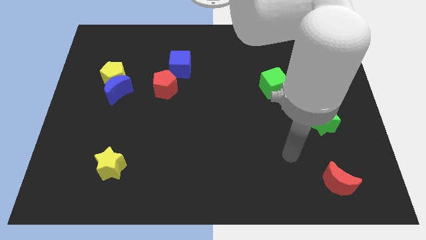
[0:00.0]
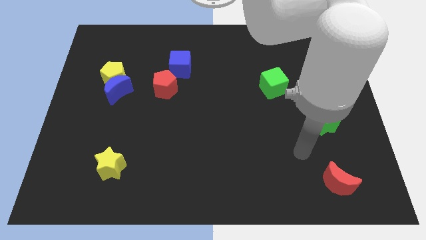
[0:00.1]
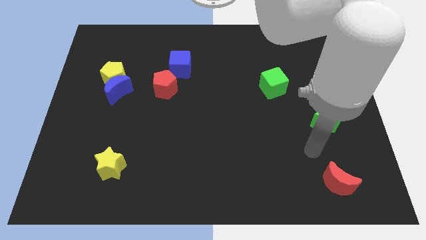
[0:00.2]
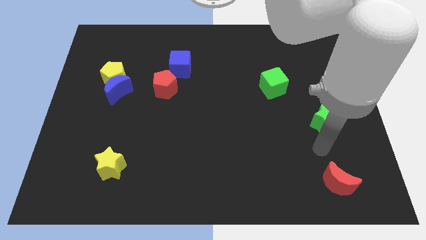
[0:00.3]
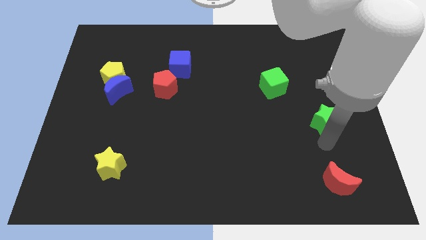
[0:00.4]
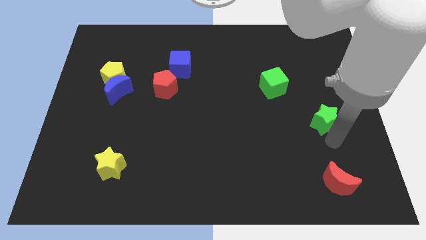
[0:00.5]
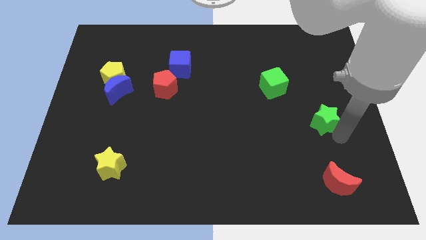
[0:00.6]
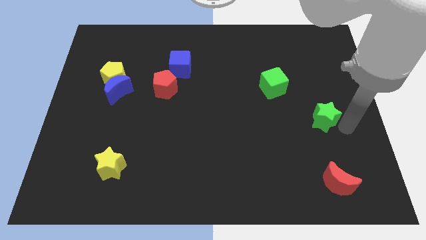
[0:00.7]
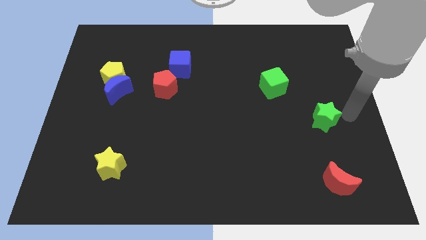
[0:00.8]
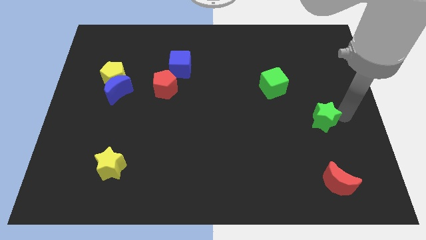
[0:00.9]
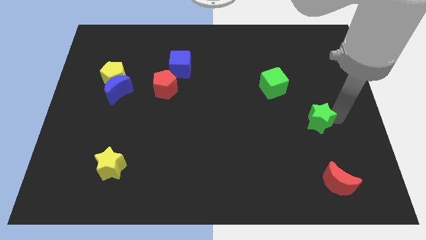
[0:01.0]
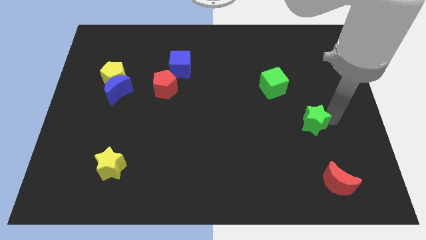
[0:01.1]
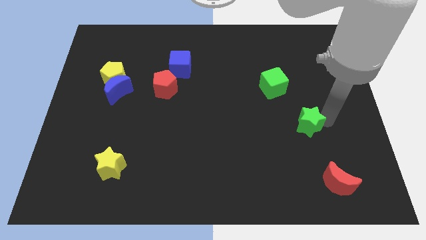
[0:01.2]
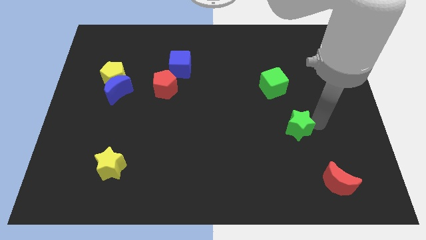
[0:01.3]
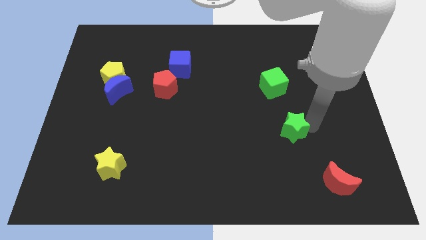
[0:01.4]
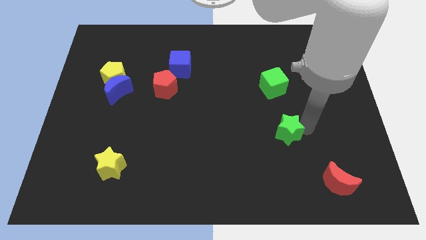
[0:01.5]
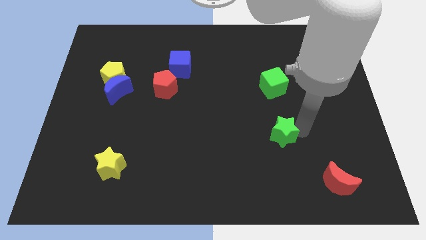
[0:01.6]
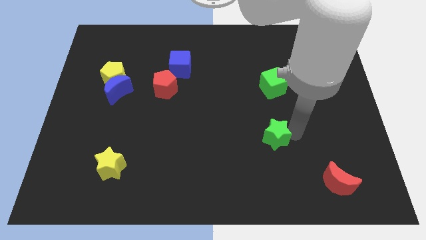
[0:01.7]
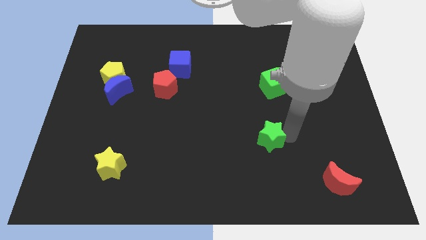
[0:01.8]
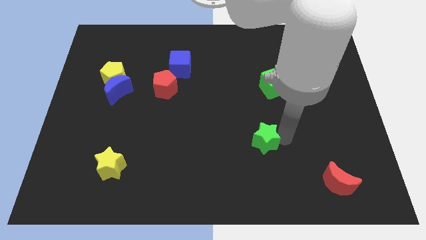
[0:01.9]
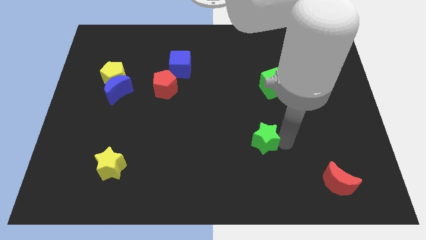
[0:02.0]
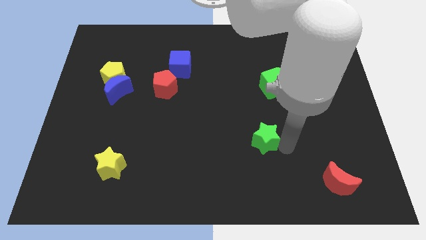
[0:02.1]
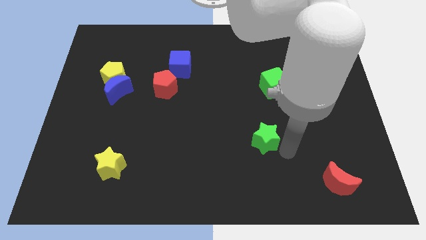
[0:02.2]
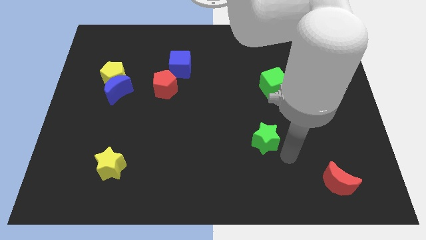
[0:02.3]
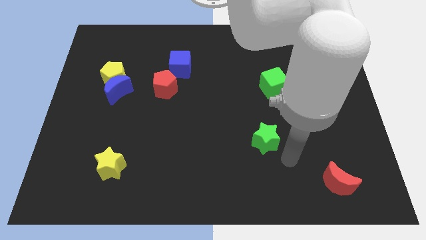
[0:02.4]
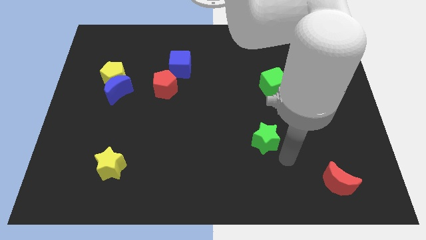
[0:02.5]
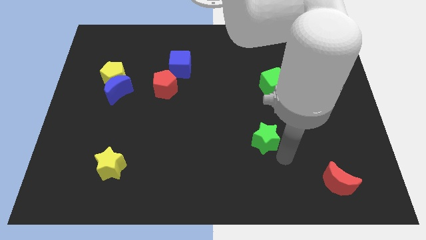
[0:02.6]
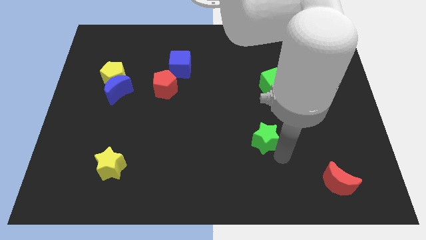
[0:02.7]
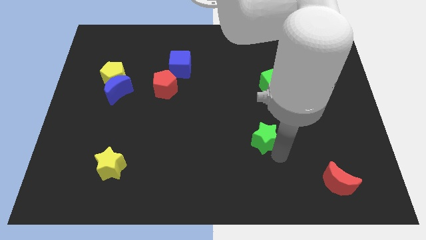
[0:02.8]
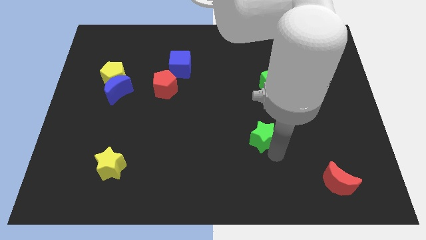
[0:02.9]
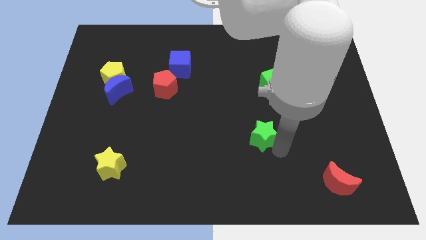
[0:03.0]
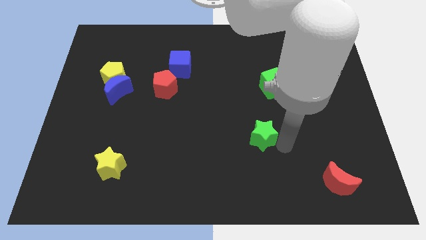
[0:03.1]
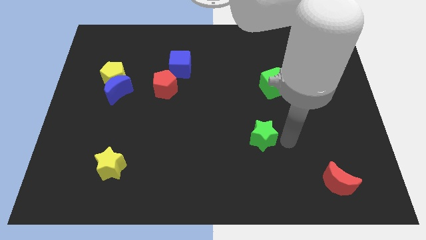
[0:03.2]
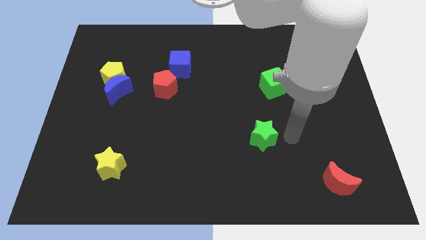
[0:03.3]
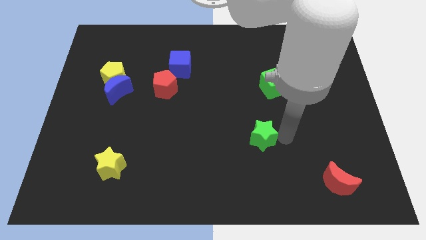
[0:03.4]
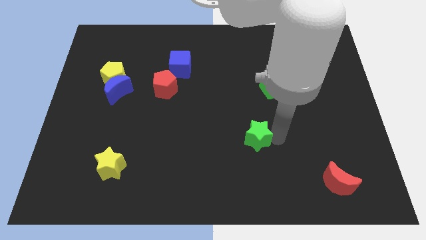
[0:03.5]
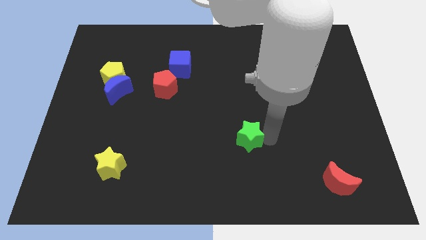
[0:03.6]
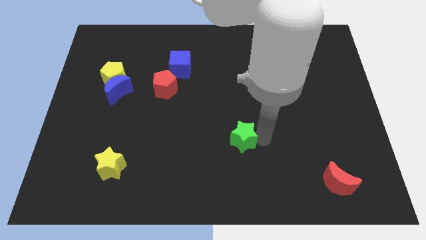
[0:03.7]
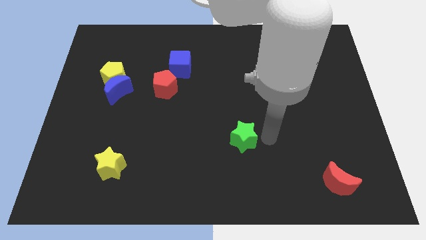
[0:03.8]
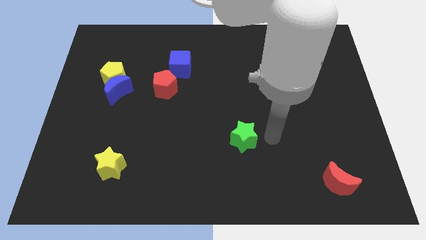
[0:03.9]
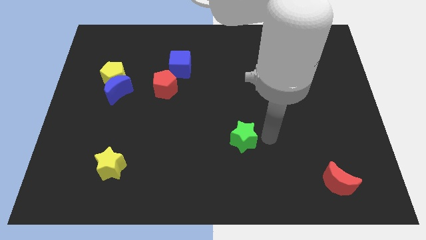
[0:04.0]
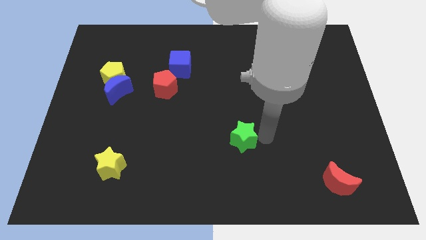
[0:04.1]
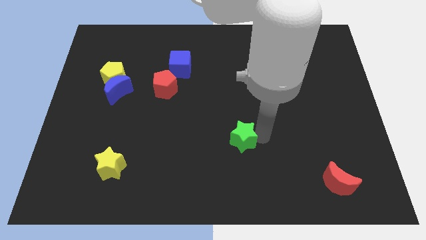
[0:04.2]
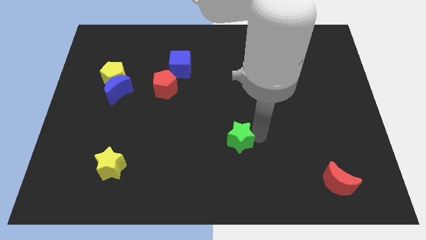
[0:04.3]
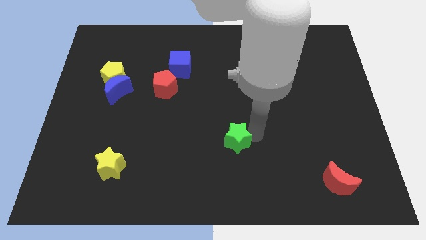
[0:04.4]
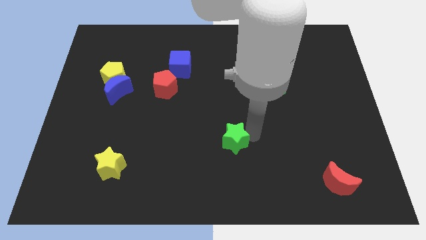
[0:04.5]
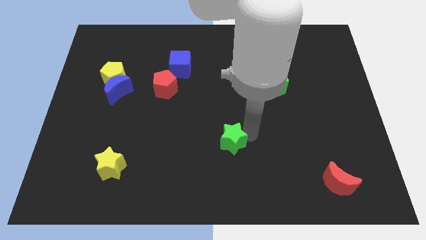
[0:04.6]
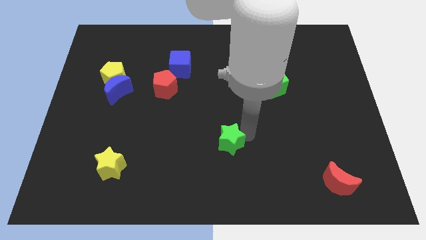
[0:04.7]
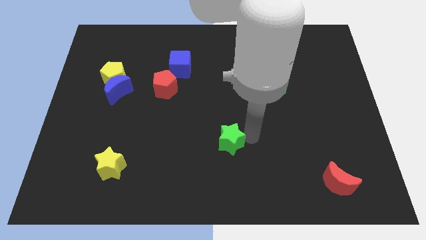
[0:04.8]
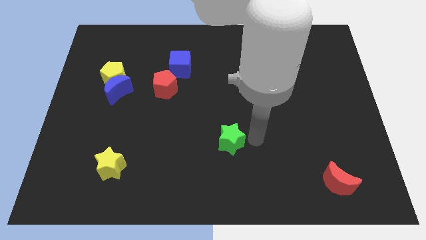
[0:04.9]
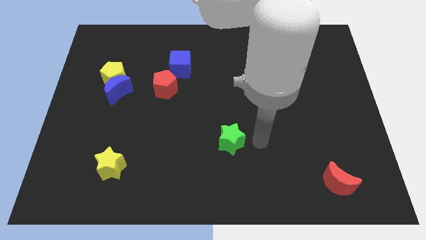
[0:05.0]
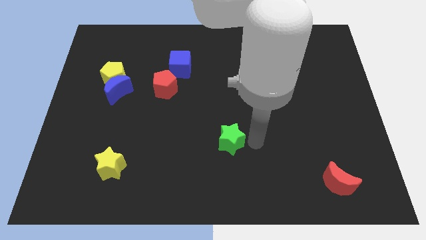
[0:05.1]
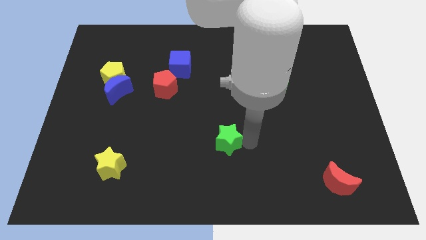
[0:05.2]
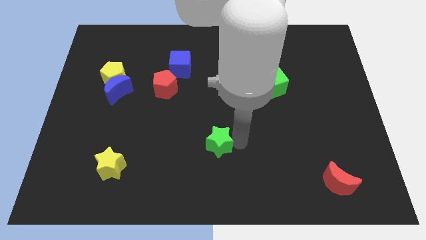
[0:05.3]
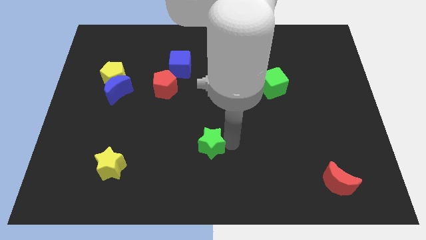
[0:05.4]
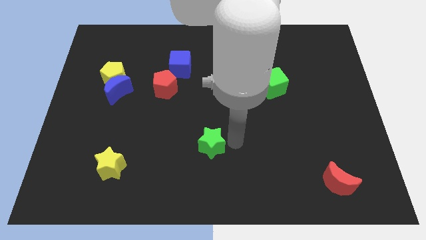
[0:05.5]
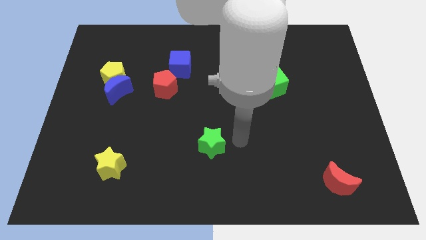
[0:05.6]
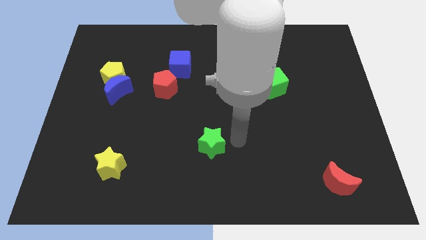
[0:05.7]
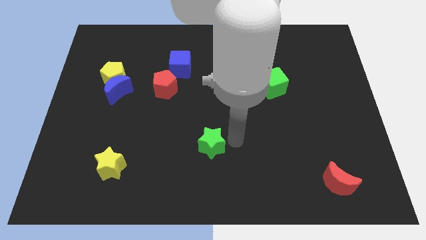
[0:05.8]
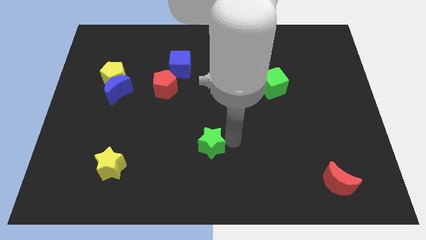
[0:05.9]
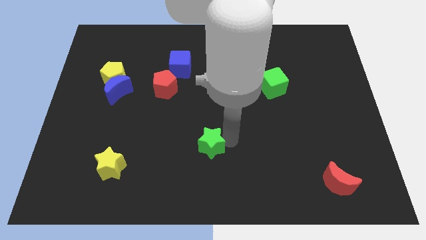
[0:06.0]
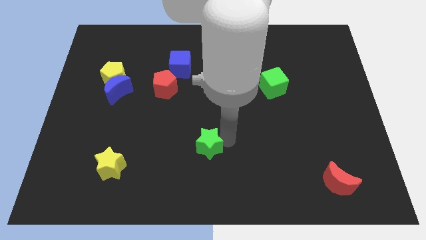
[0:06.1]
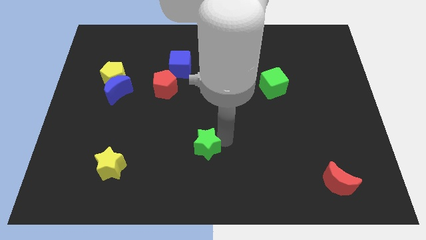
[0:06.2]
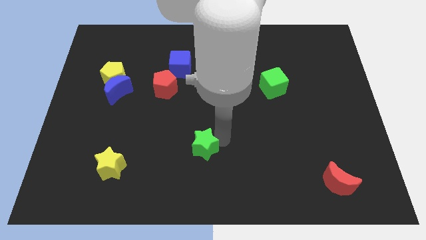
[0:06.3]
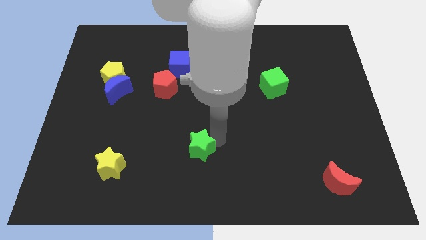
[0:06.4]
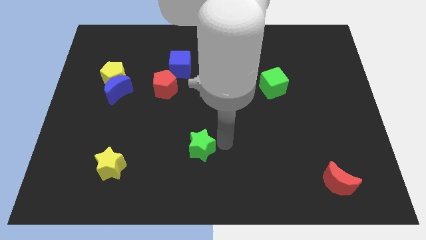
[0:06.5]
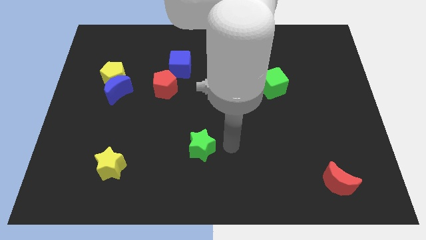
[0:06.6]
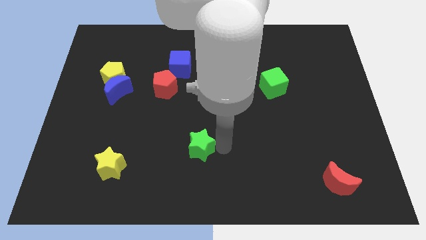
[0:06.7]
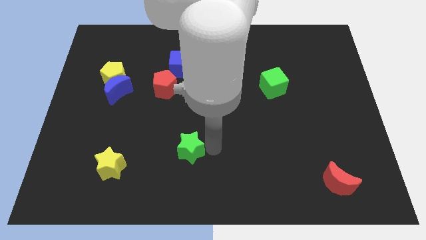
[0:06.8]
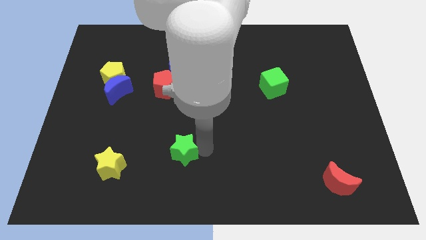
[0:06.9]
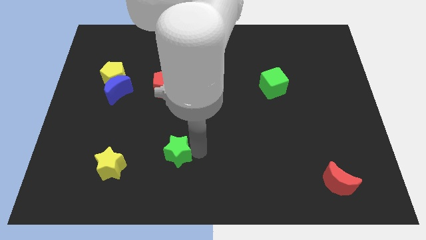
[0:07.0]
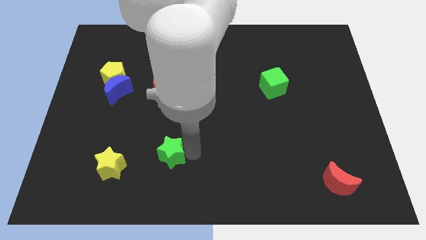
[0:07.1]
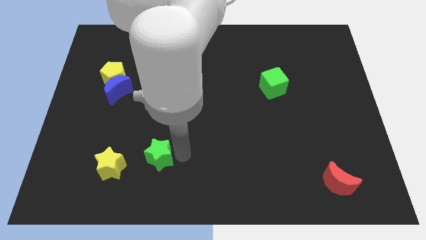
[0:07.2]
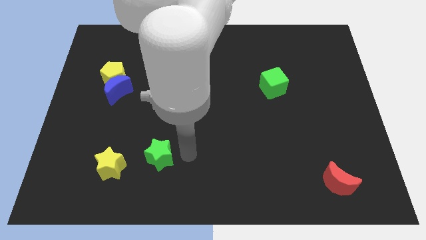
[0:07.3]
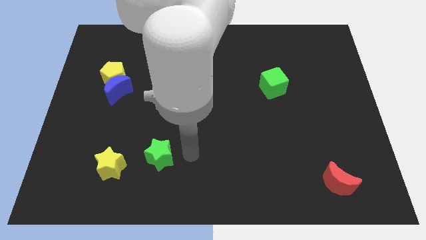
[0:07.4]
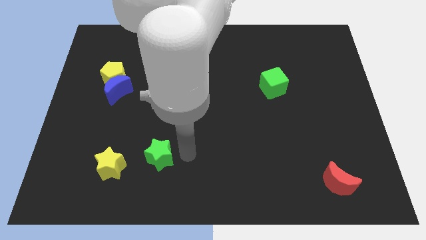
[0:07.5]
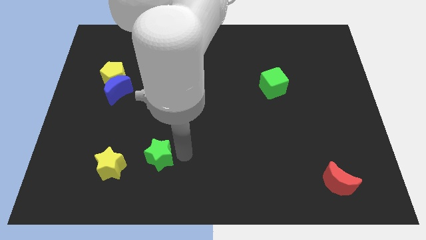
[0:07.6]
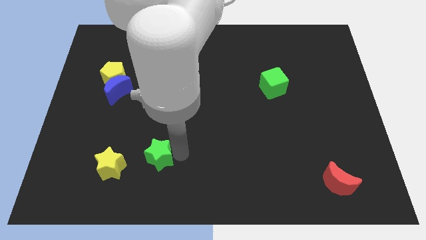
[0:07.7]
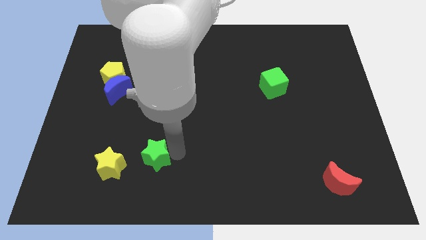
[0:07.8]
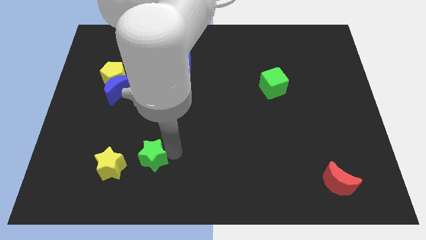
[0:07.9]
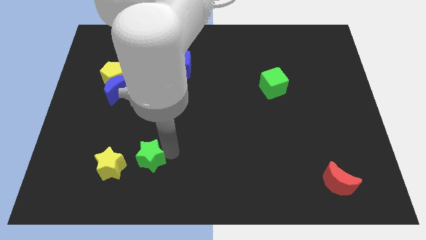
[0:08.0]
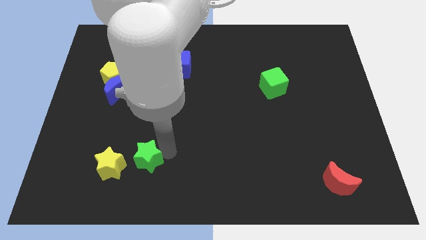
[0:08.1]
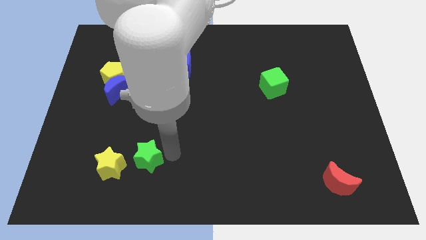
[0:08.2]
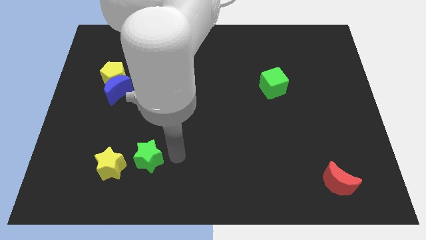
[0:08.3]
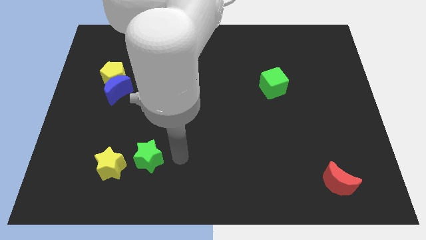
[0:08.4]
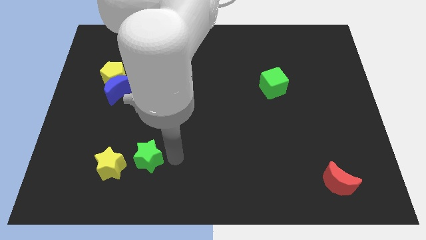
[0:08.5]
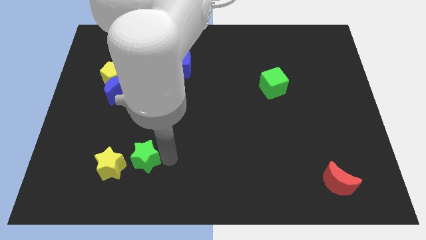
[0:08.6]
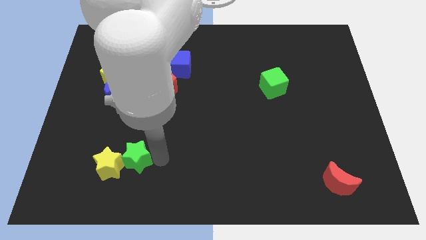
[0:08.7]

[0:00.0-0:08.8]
move the green star next to the yellow star
